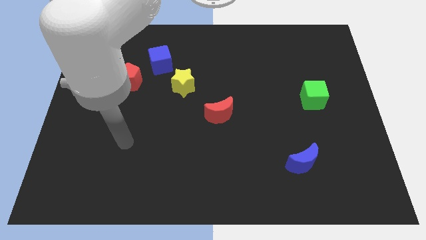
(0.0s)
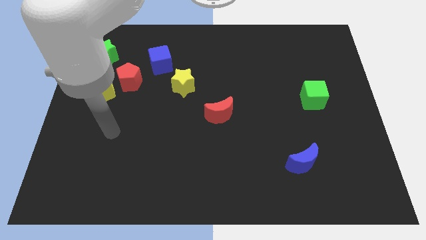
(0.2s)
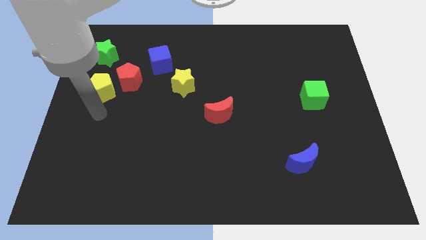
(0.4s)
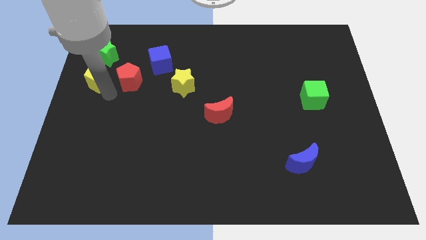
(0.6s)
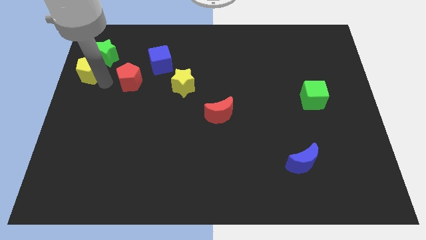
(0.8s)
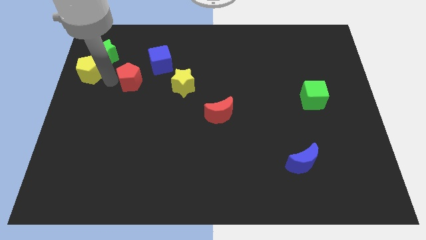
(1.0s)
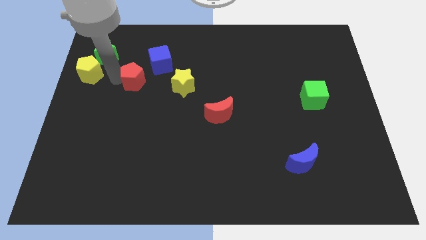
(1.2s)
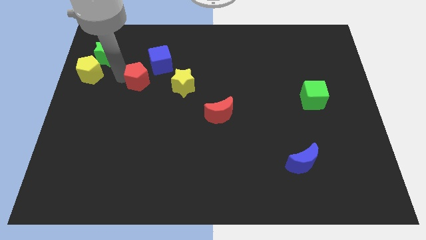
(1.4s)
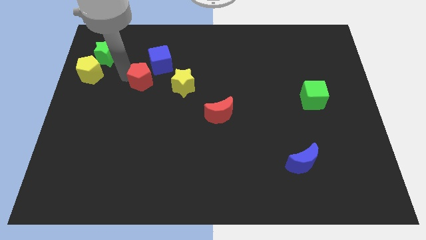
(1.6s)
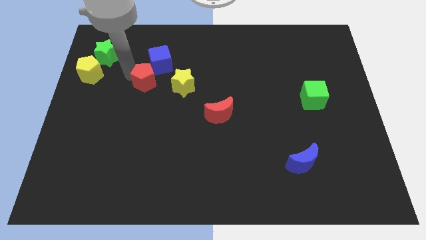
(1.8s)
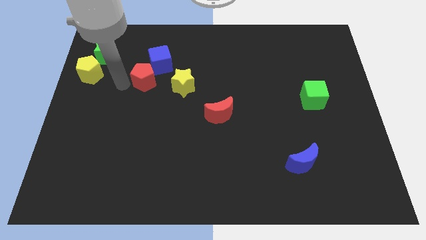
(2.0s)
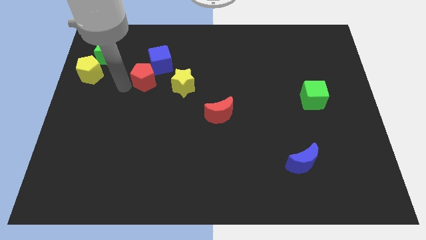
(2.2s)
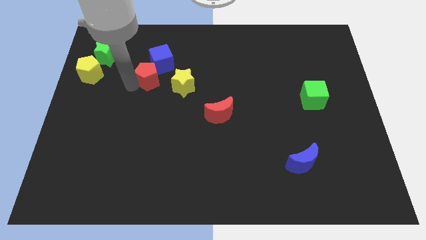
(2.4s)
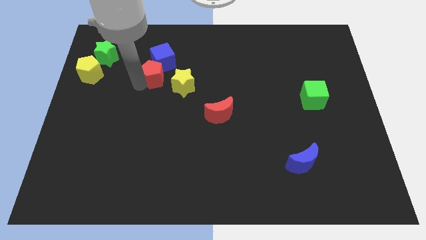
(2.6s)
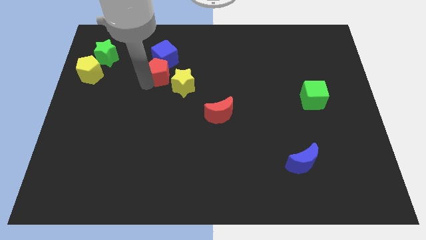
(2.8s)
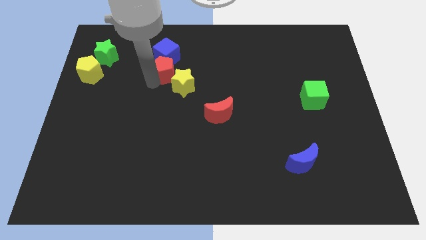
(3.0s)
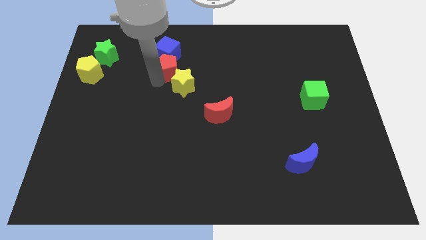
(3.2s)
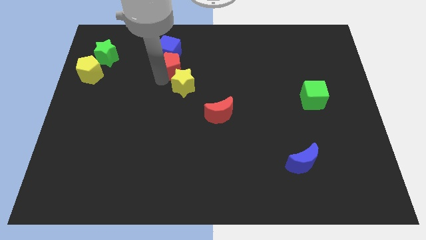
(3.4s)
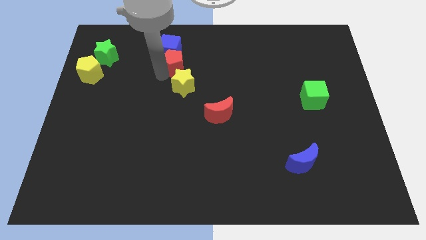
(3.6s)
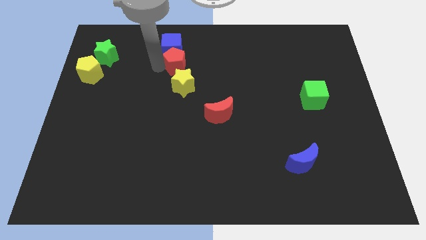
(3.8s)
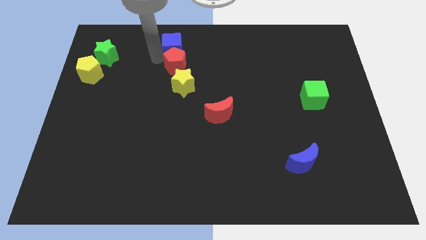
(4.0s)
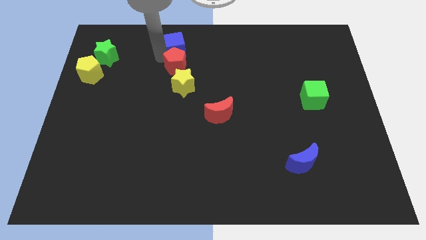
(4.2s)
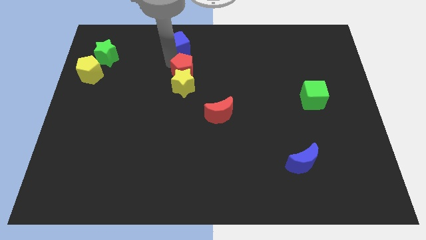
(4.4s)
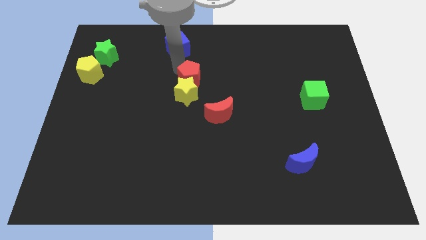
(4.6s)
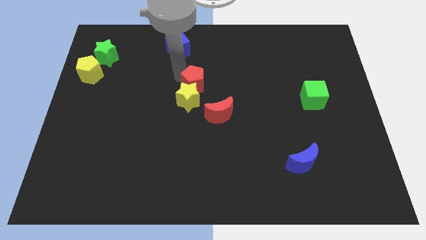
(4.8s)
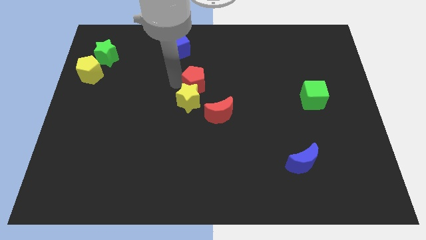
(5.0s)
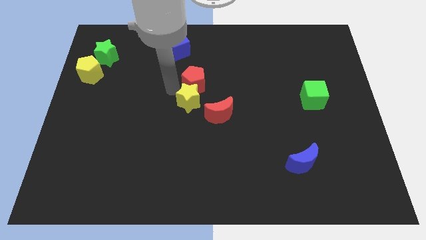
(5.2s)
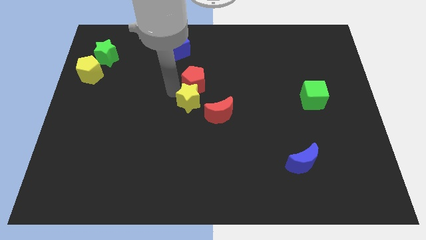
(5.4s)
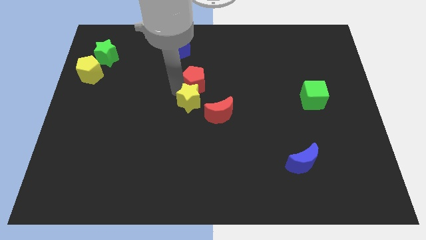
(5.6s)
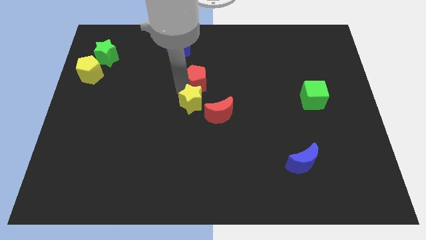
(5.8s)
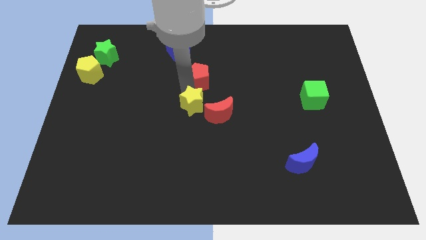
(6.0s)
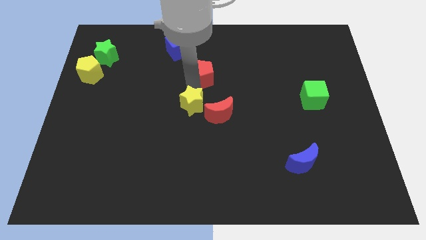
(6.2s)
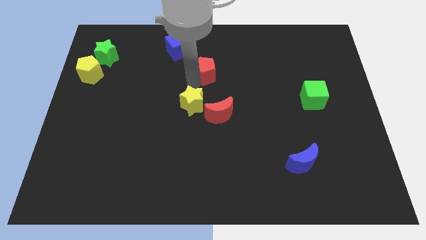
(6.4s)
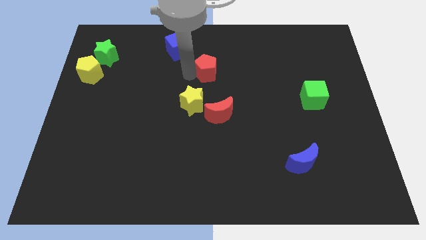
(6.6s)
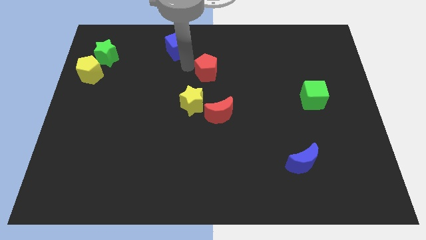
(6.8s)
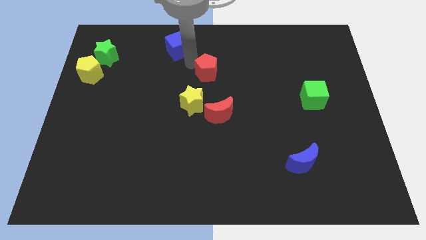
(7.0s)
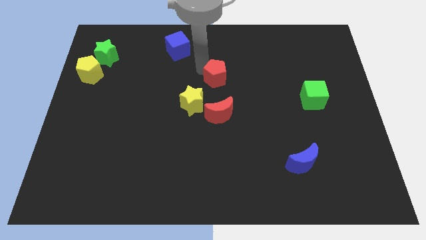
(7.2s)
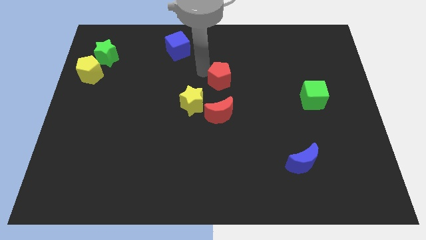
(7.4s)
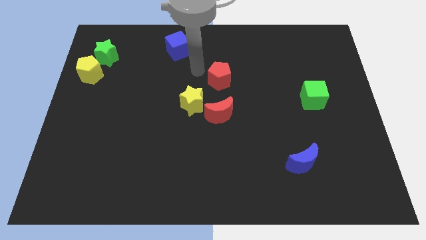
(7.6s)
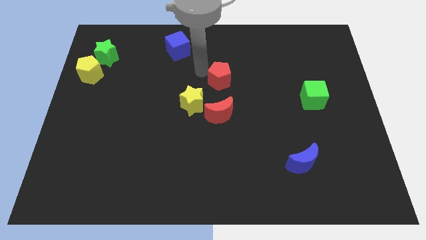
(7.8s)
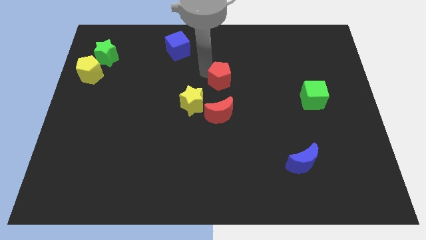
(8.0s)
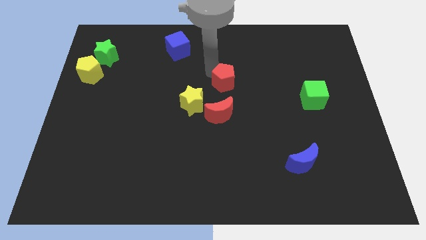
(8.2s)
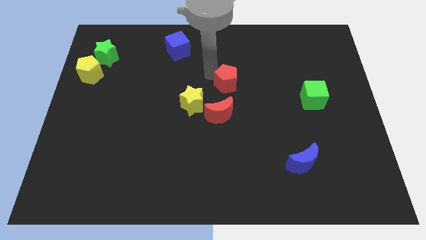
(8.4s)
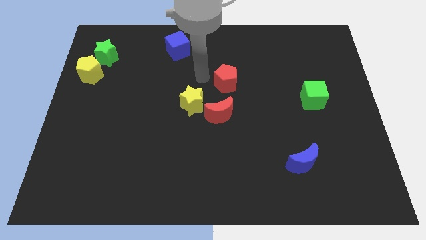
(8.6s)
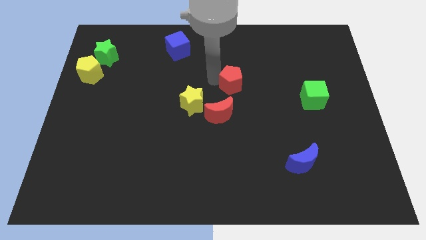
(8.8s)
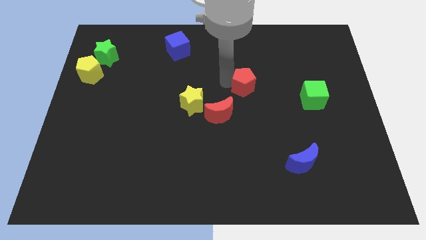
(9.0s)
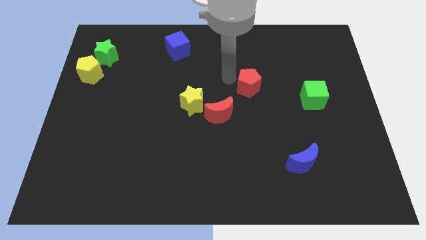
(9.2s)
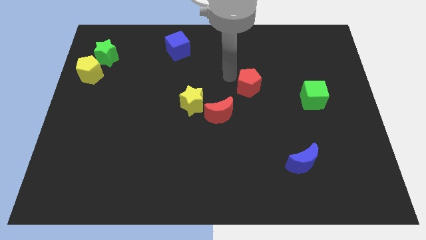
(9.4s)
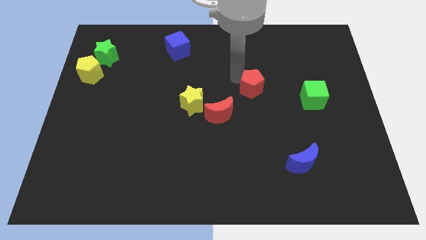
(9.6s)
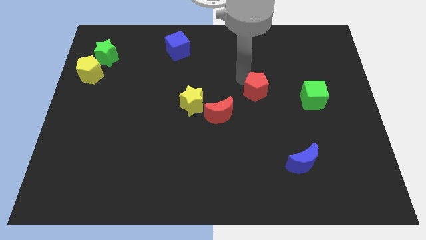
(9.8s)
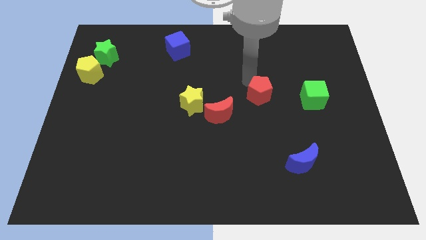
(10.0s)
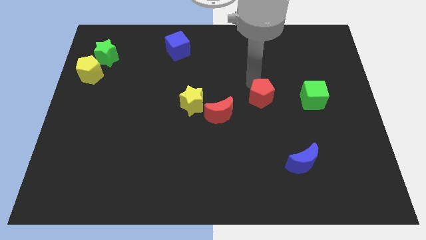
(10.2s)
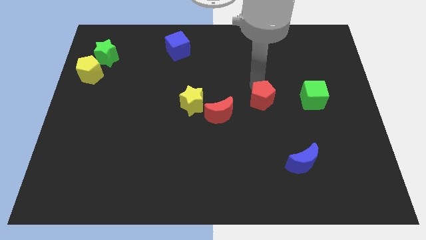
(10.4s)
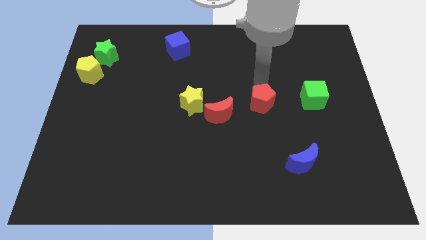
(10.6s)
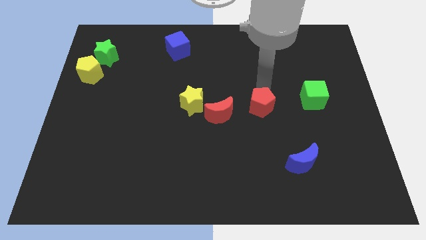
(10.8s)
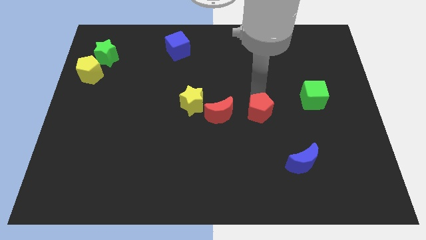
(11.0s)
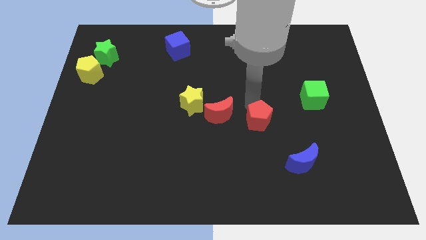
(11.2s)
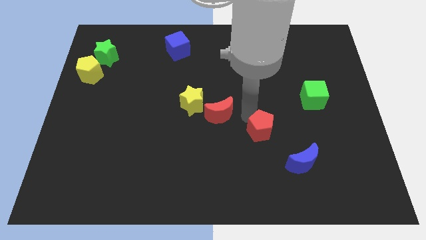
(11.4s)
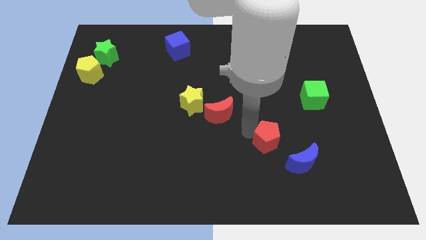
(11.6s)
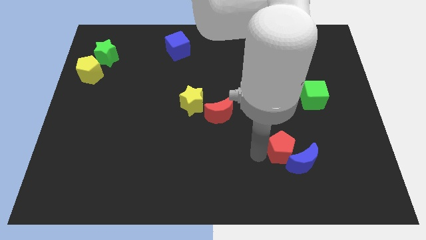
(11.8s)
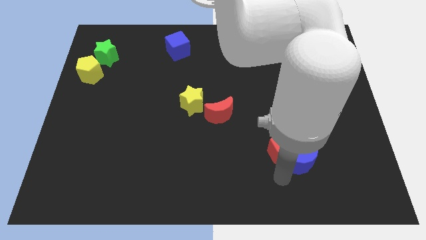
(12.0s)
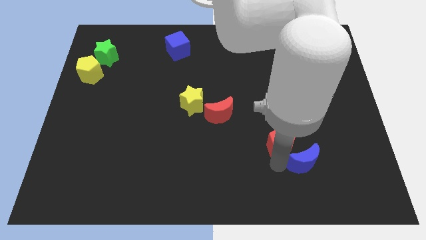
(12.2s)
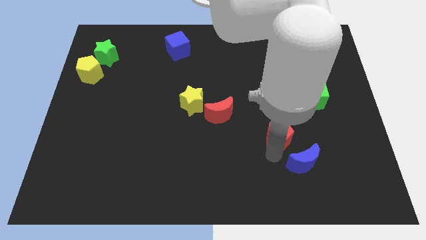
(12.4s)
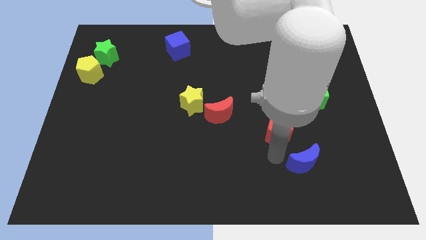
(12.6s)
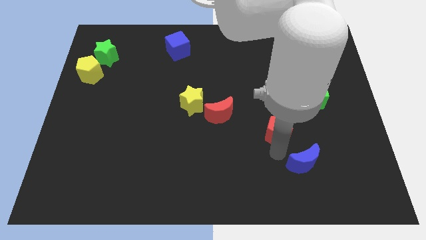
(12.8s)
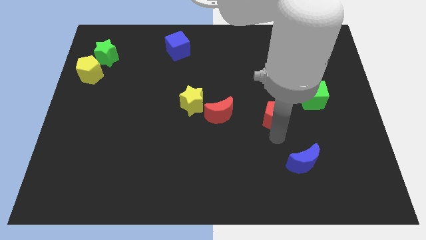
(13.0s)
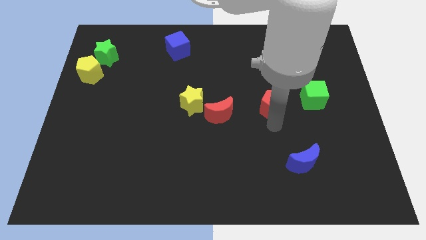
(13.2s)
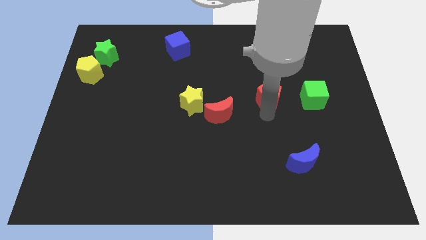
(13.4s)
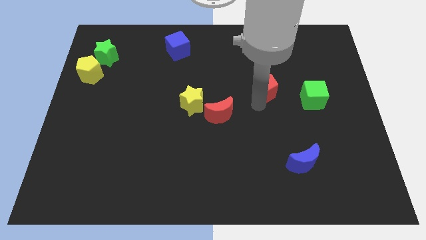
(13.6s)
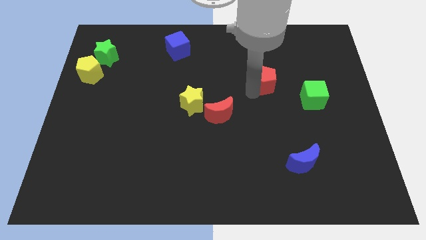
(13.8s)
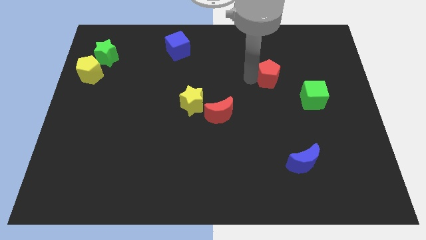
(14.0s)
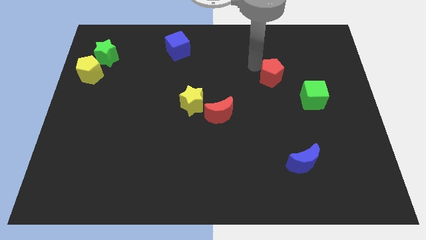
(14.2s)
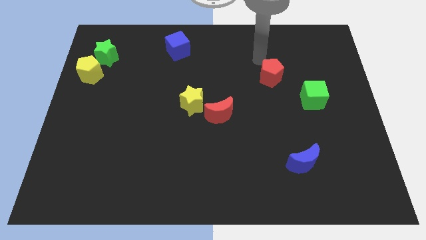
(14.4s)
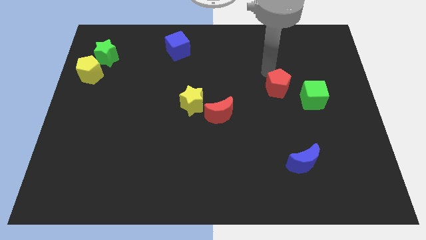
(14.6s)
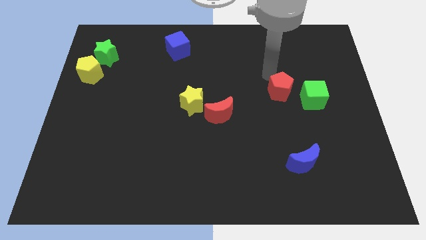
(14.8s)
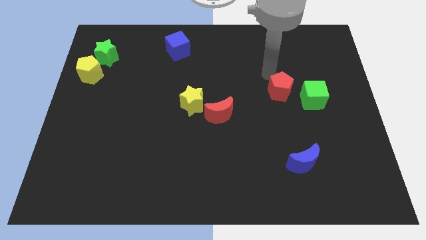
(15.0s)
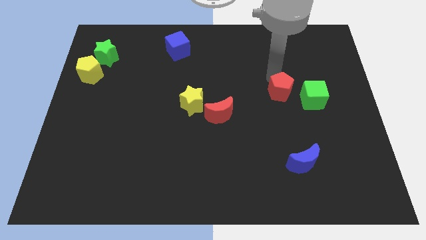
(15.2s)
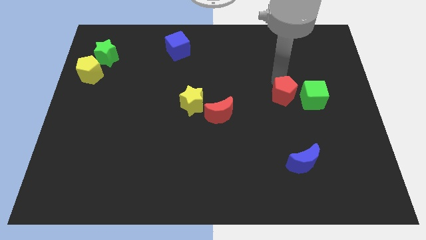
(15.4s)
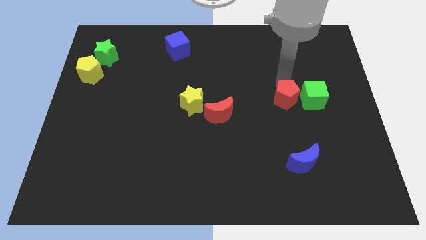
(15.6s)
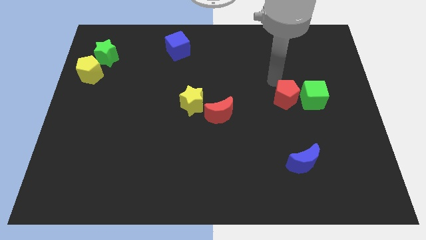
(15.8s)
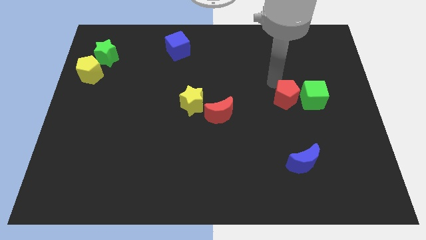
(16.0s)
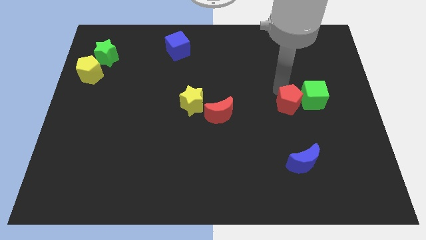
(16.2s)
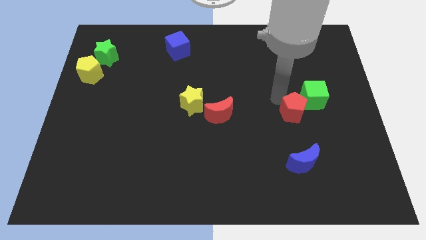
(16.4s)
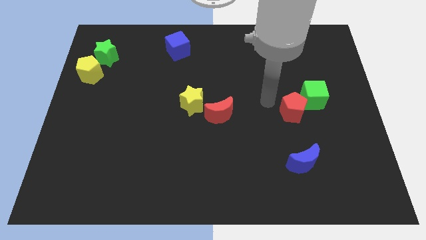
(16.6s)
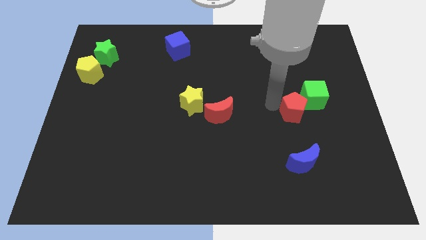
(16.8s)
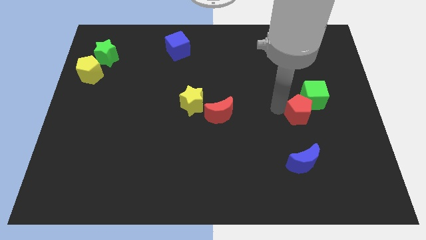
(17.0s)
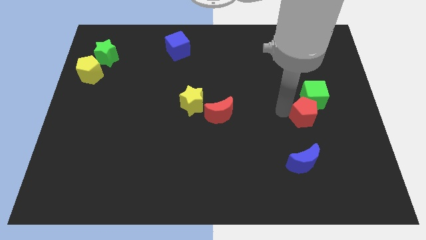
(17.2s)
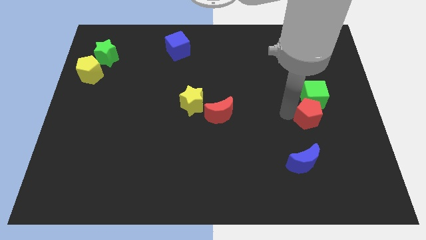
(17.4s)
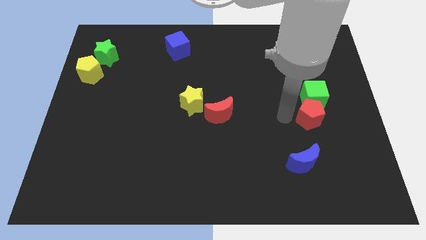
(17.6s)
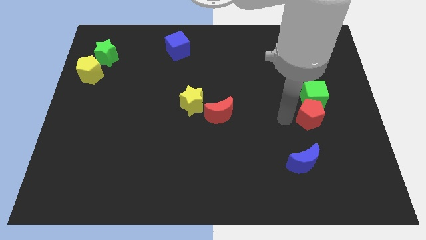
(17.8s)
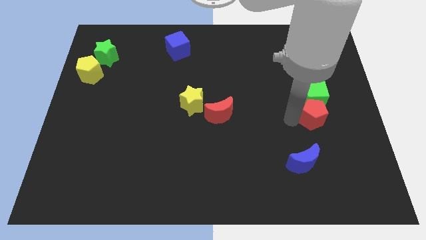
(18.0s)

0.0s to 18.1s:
put the red pentagon diagonally down and to the right of the green cube
